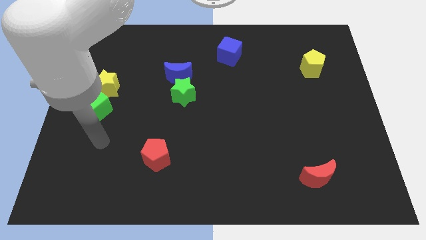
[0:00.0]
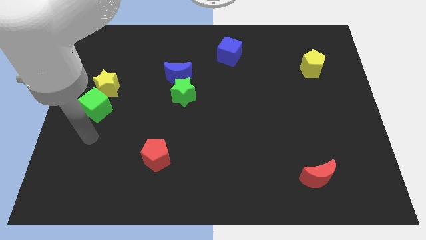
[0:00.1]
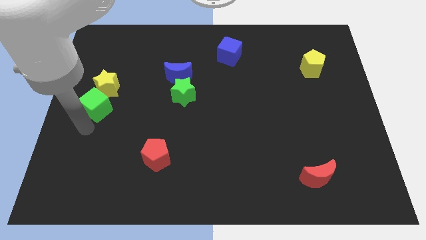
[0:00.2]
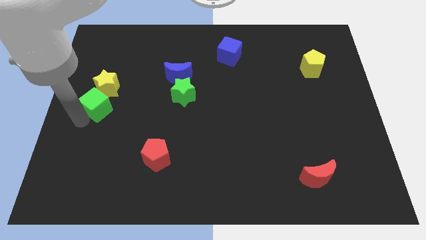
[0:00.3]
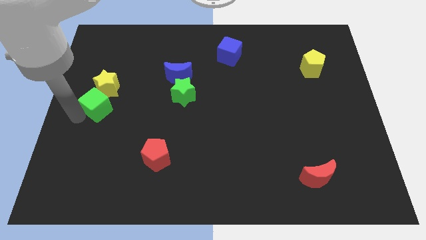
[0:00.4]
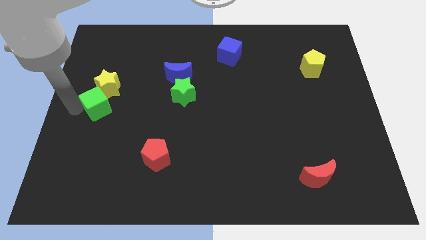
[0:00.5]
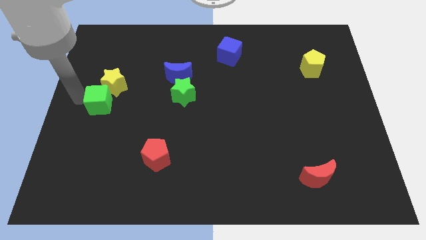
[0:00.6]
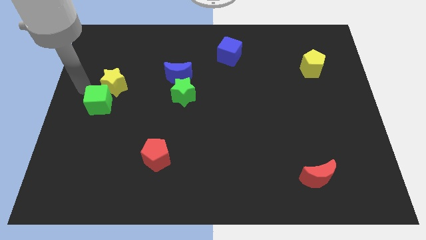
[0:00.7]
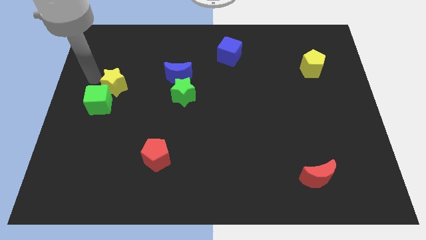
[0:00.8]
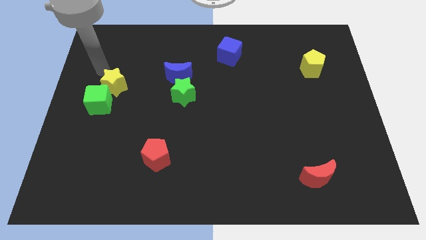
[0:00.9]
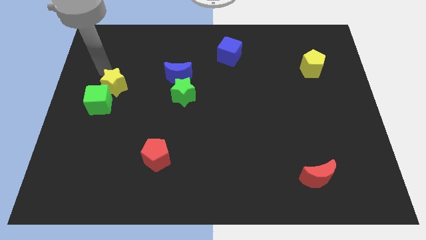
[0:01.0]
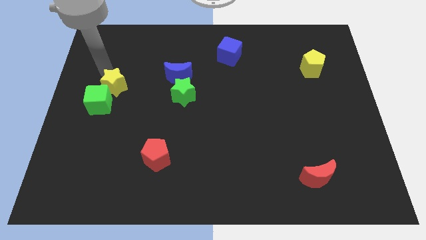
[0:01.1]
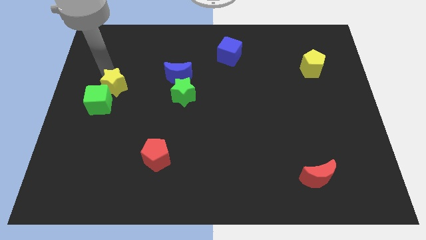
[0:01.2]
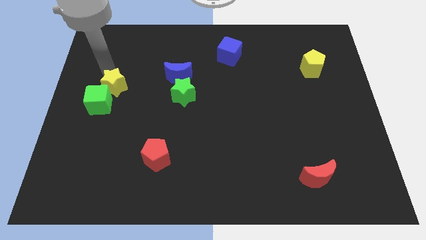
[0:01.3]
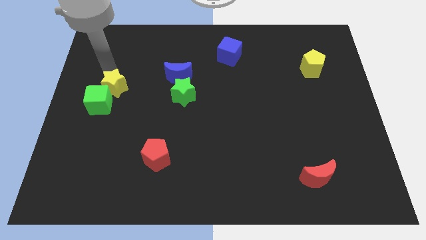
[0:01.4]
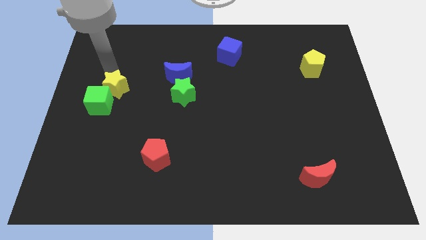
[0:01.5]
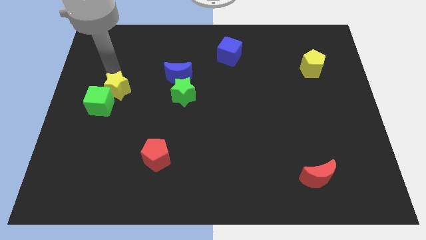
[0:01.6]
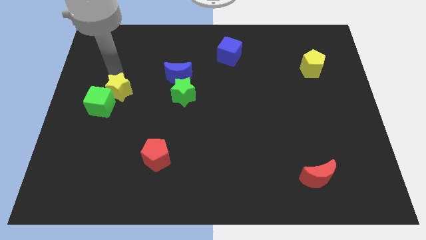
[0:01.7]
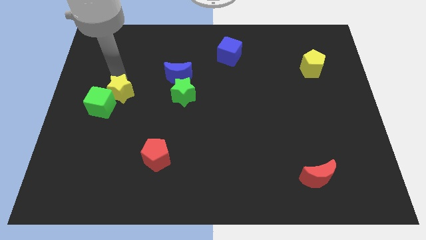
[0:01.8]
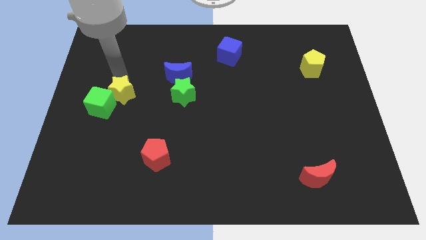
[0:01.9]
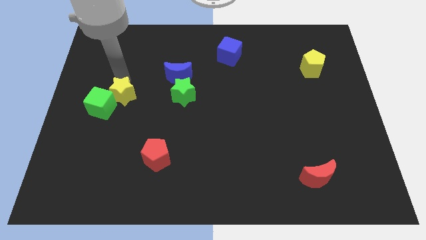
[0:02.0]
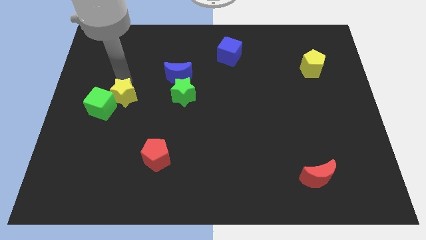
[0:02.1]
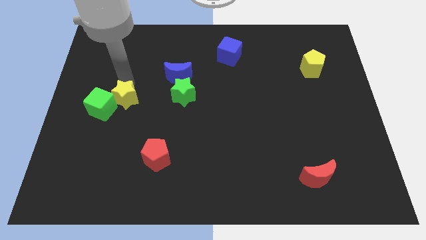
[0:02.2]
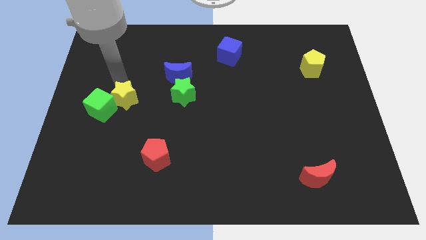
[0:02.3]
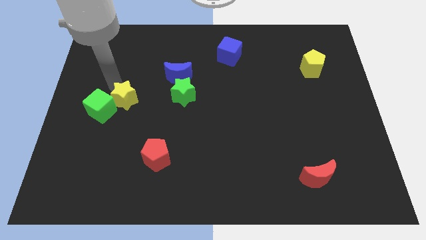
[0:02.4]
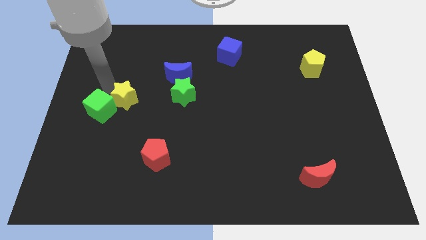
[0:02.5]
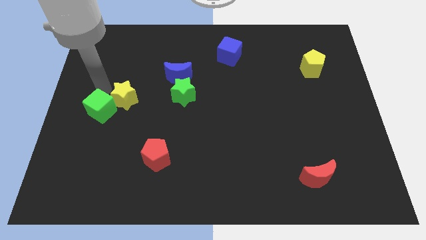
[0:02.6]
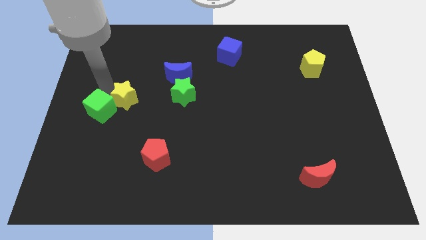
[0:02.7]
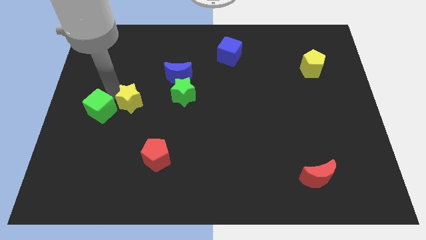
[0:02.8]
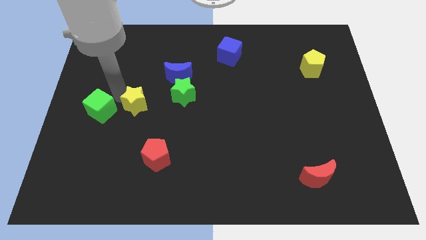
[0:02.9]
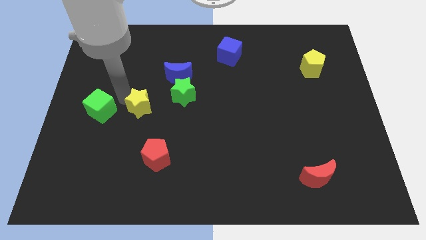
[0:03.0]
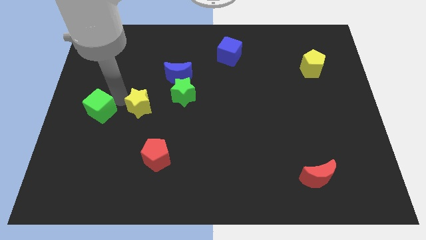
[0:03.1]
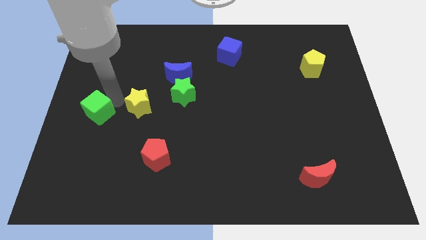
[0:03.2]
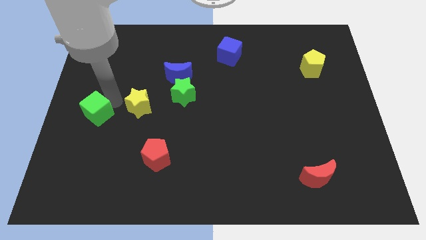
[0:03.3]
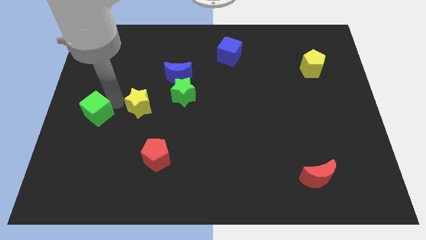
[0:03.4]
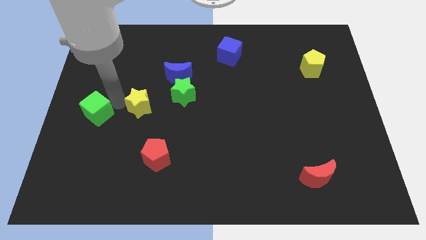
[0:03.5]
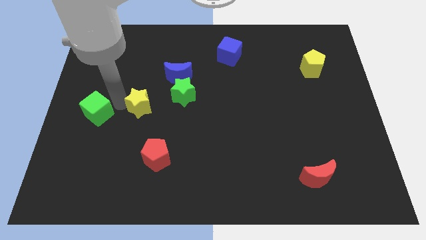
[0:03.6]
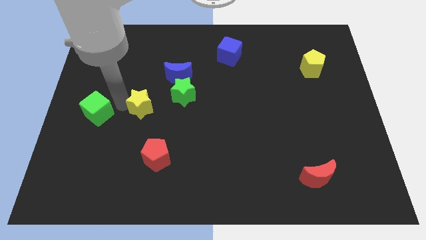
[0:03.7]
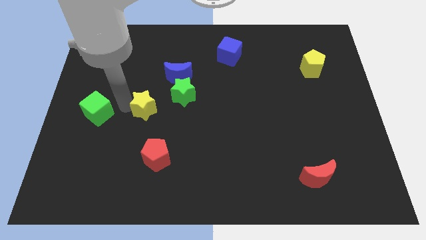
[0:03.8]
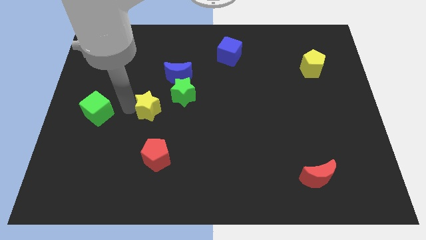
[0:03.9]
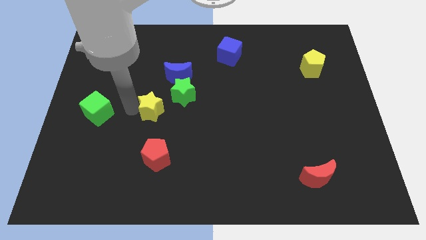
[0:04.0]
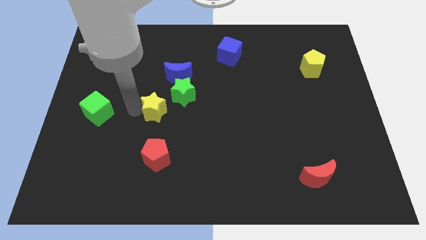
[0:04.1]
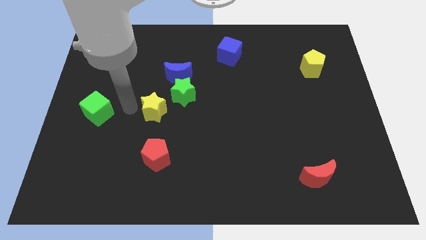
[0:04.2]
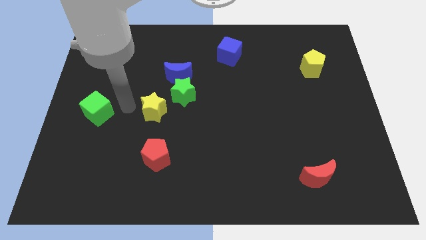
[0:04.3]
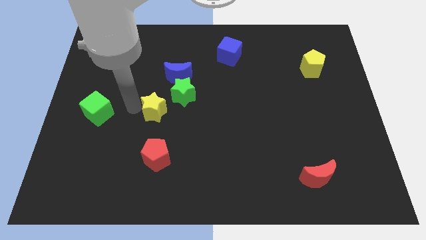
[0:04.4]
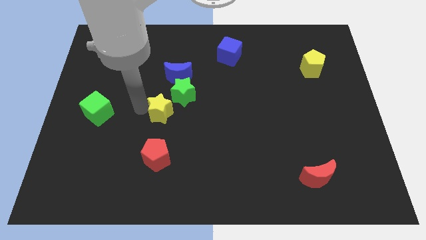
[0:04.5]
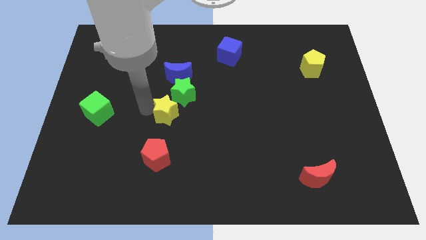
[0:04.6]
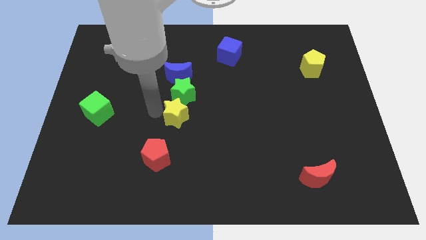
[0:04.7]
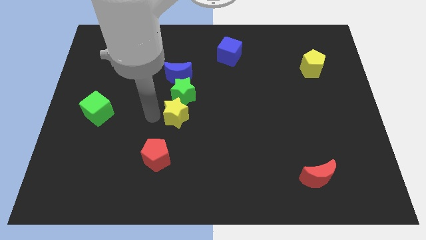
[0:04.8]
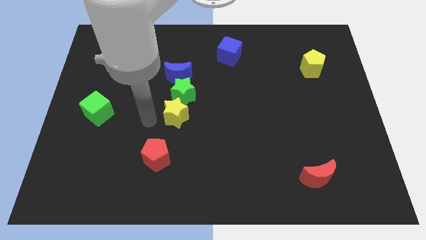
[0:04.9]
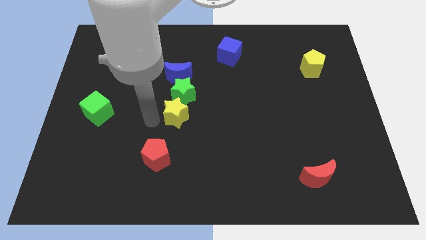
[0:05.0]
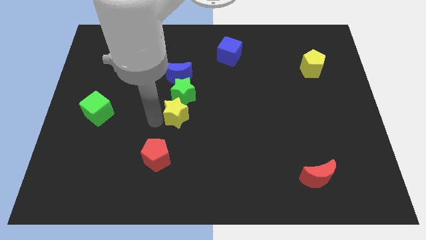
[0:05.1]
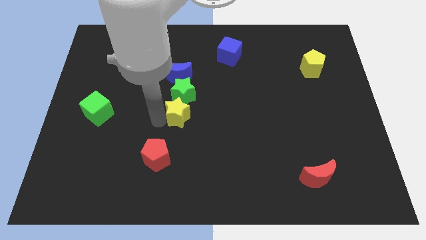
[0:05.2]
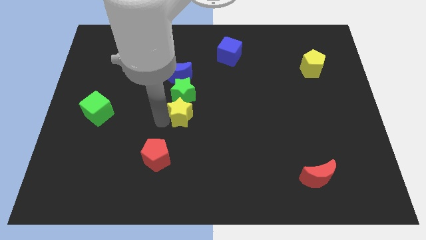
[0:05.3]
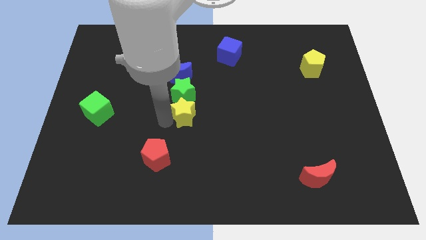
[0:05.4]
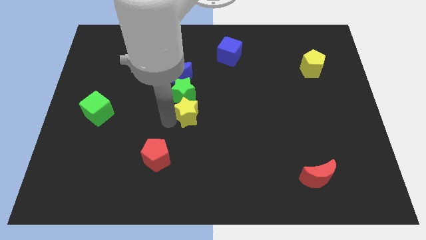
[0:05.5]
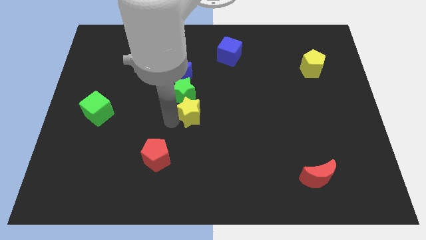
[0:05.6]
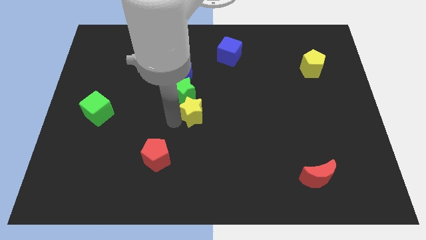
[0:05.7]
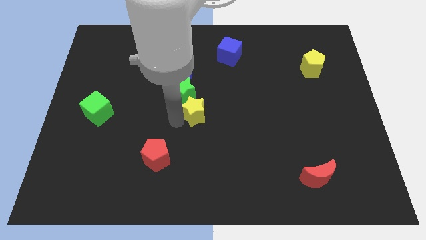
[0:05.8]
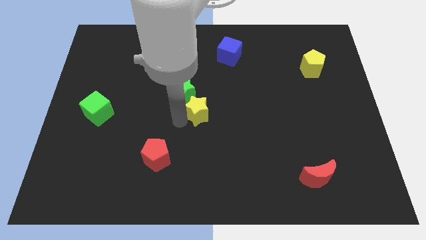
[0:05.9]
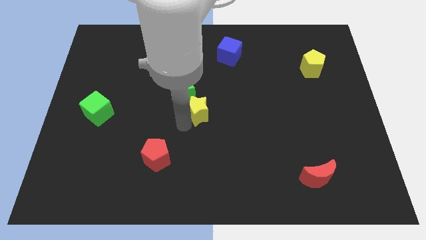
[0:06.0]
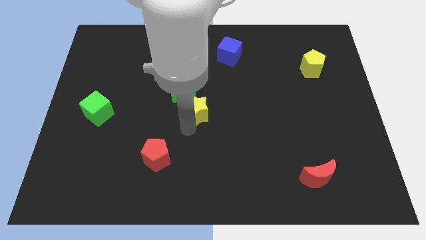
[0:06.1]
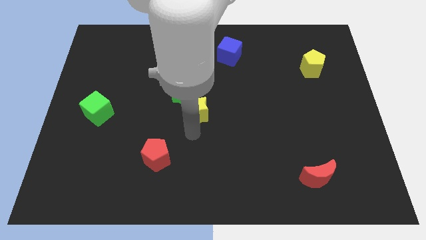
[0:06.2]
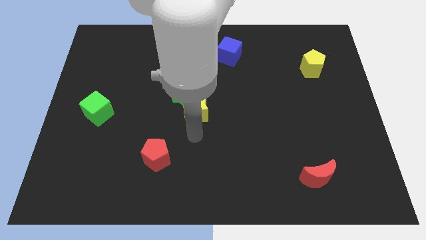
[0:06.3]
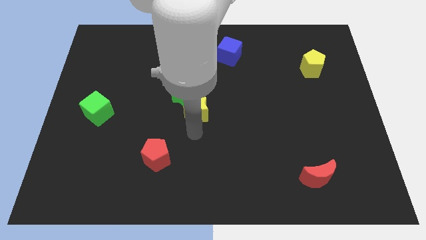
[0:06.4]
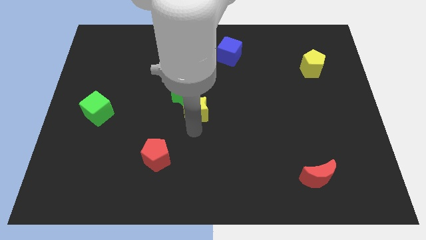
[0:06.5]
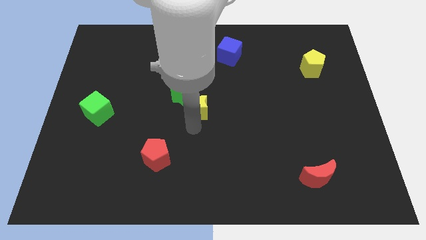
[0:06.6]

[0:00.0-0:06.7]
slide the yellow star to the bottom right side of the blue moon

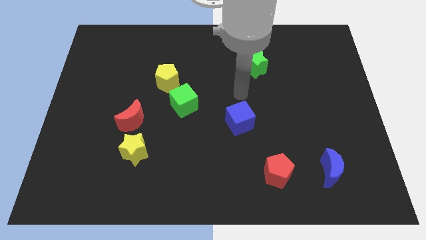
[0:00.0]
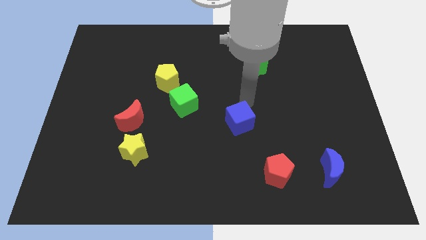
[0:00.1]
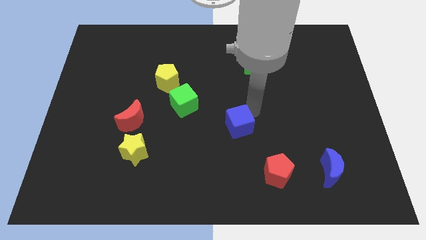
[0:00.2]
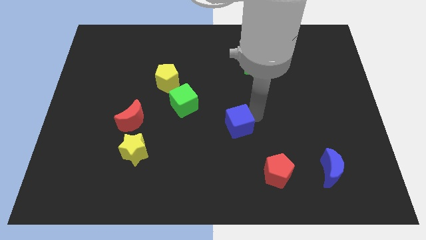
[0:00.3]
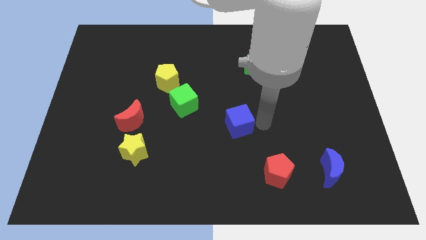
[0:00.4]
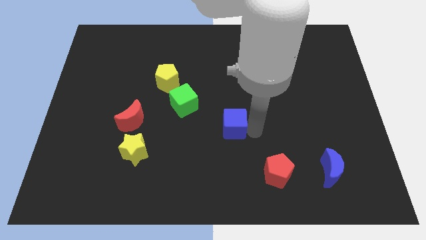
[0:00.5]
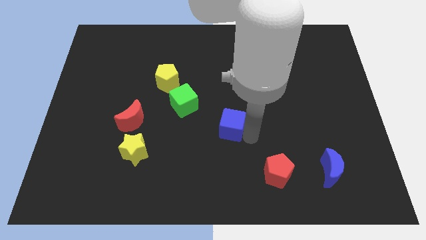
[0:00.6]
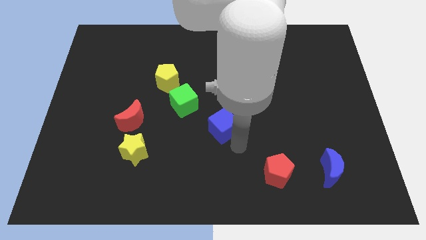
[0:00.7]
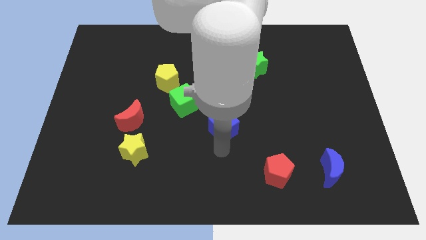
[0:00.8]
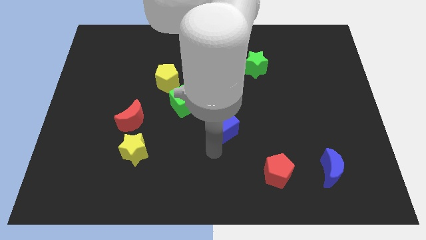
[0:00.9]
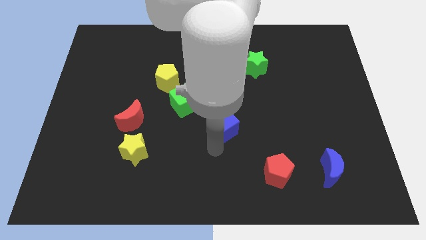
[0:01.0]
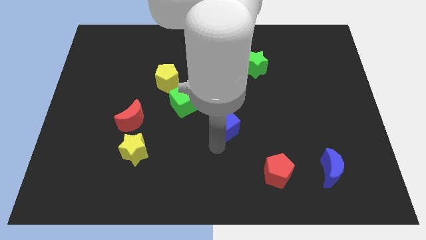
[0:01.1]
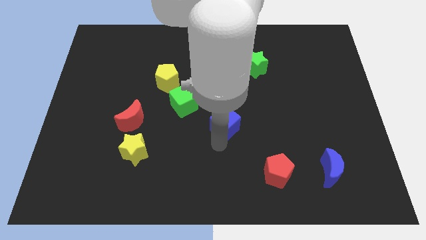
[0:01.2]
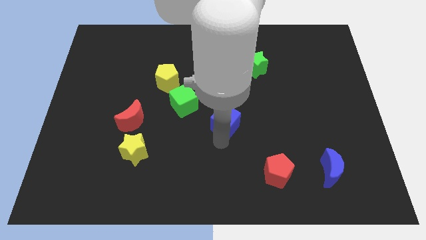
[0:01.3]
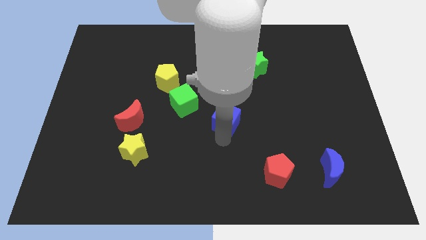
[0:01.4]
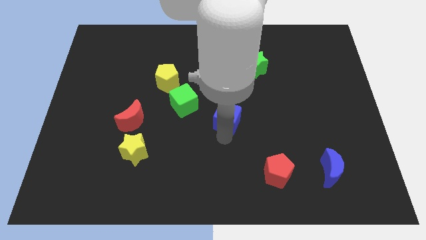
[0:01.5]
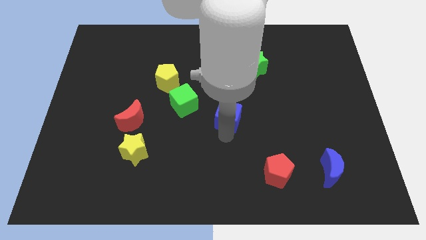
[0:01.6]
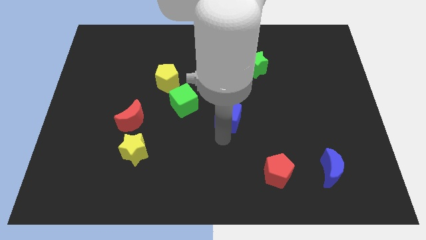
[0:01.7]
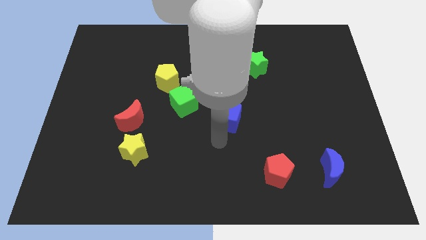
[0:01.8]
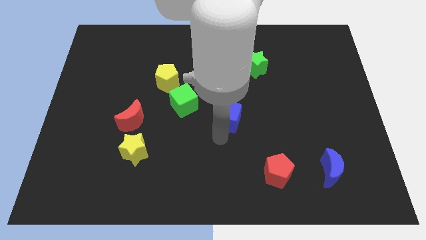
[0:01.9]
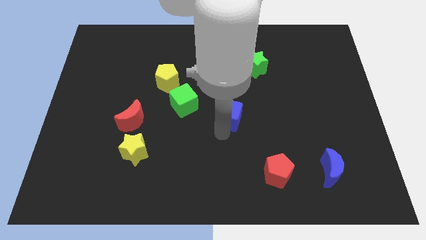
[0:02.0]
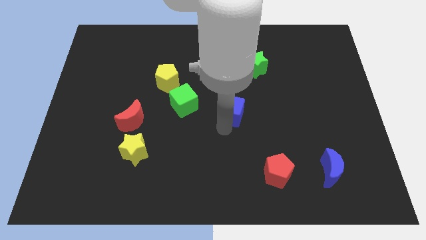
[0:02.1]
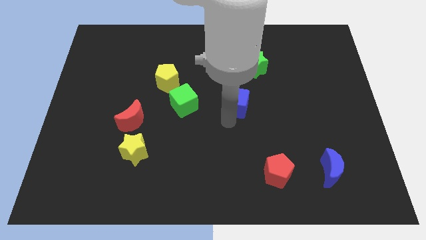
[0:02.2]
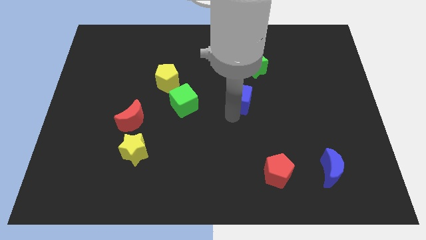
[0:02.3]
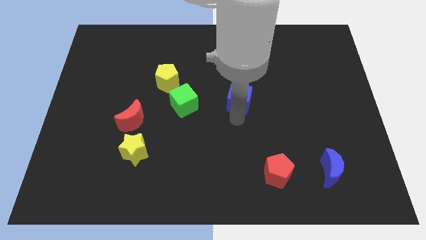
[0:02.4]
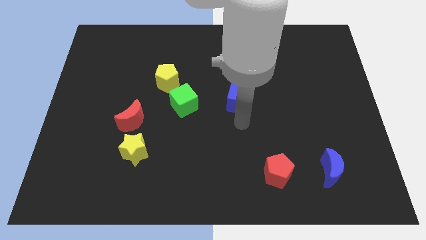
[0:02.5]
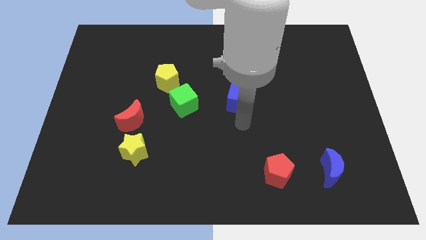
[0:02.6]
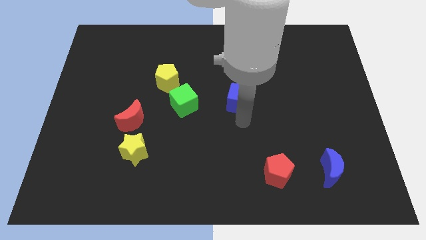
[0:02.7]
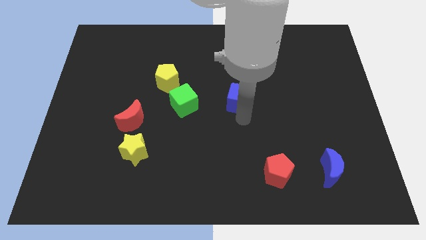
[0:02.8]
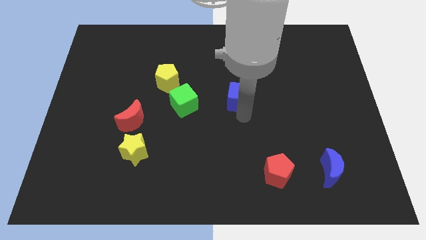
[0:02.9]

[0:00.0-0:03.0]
slide the blue cube to the bottom left side of the green star
